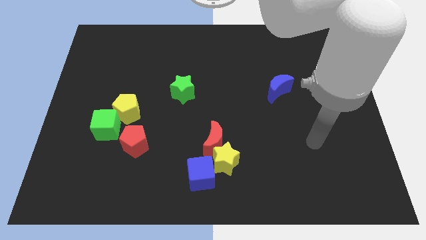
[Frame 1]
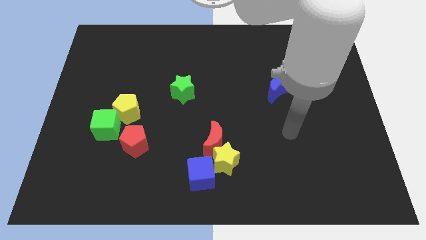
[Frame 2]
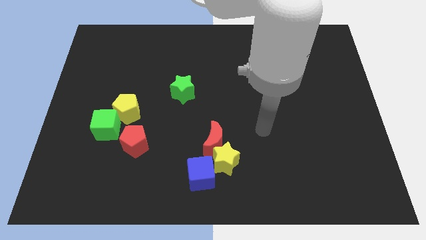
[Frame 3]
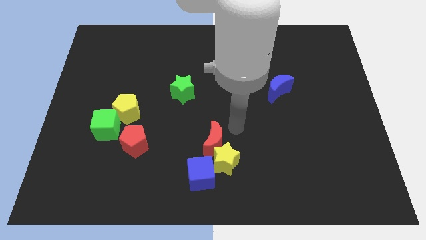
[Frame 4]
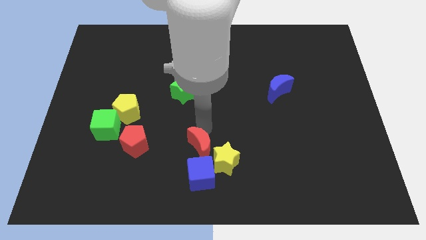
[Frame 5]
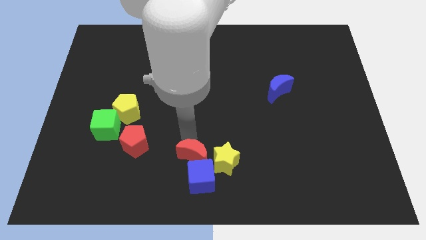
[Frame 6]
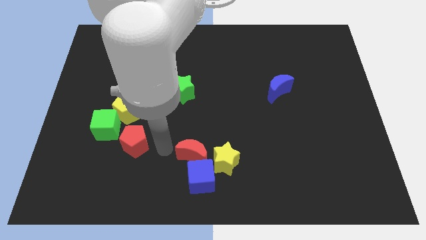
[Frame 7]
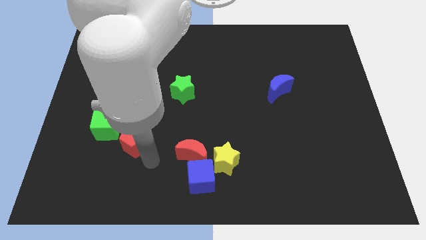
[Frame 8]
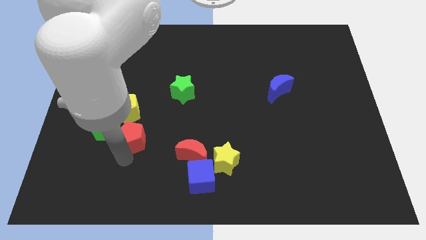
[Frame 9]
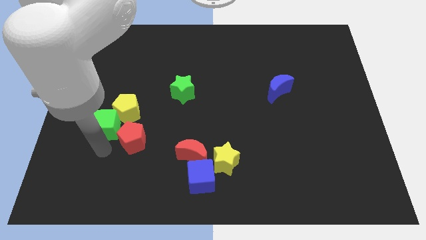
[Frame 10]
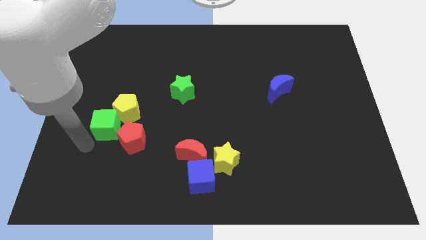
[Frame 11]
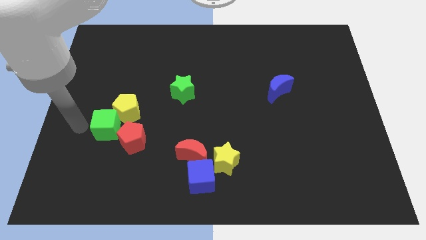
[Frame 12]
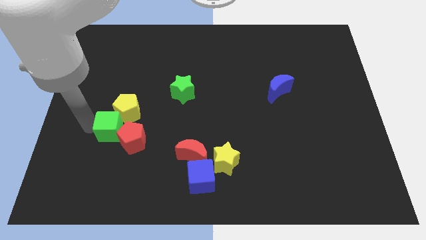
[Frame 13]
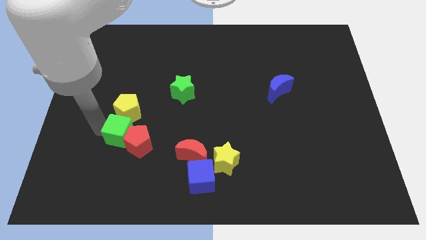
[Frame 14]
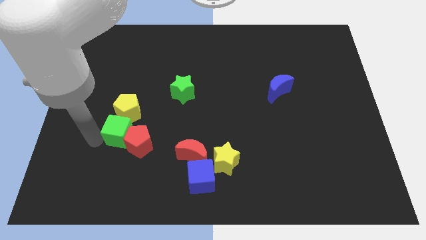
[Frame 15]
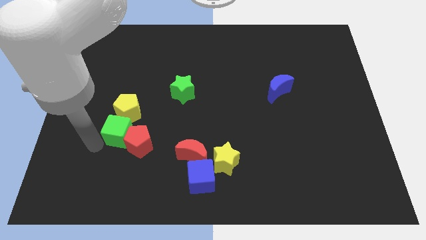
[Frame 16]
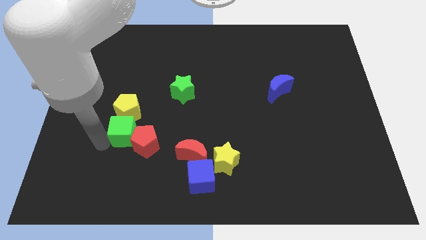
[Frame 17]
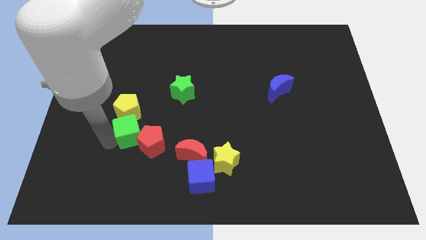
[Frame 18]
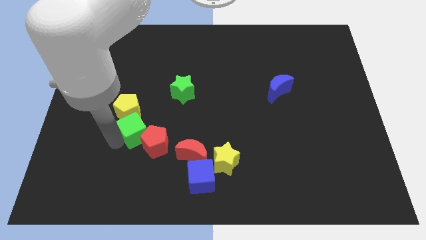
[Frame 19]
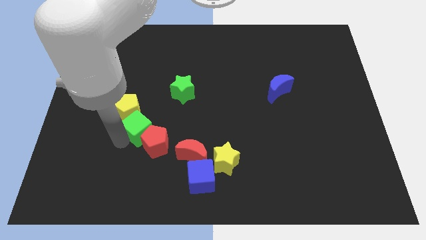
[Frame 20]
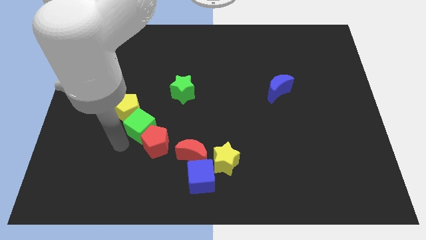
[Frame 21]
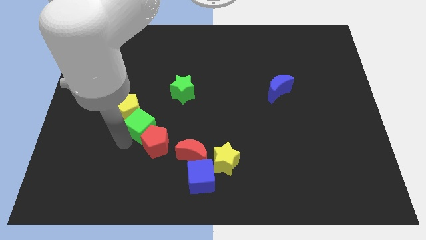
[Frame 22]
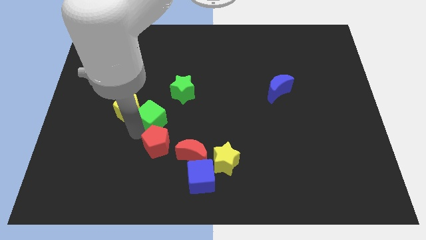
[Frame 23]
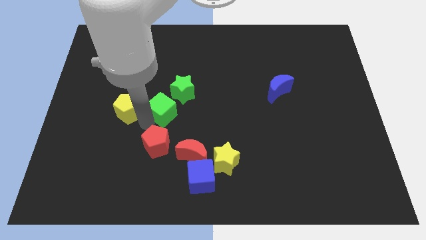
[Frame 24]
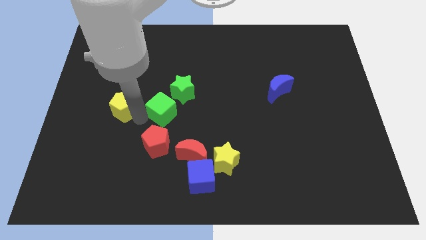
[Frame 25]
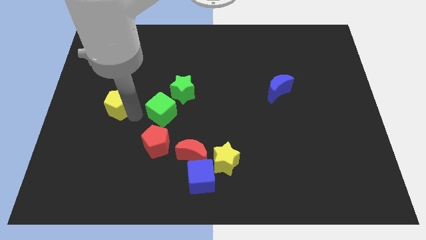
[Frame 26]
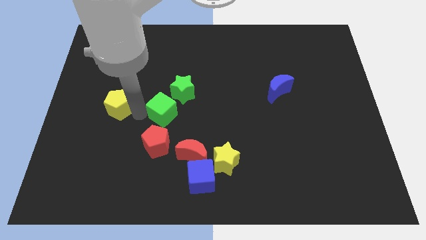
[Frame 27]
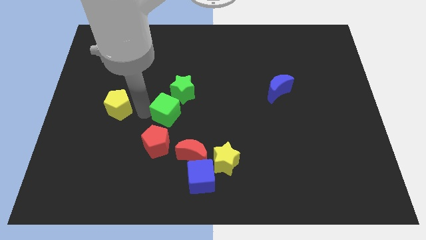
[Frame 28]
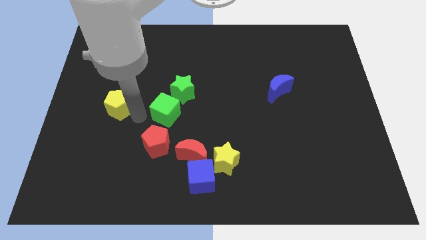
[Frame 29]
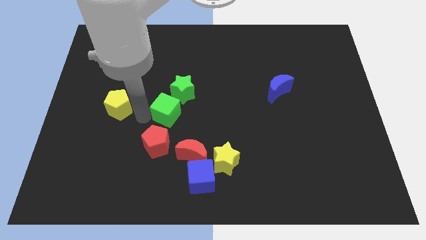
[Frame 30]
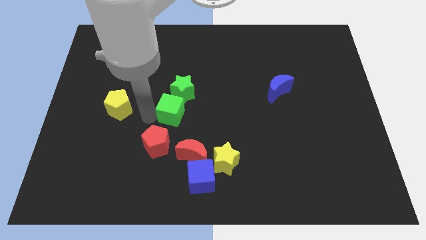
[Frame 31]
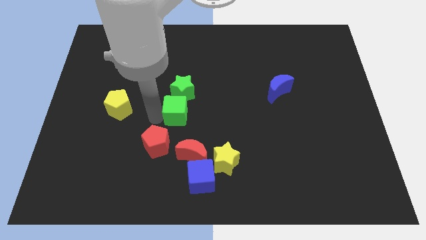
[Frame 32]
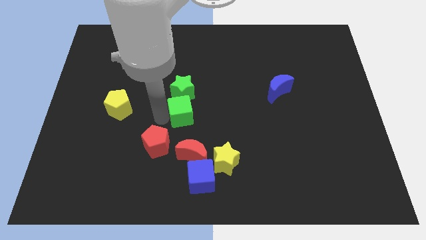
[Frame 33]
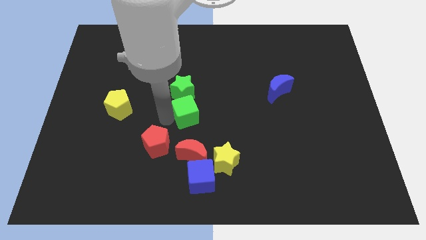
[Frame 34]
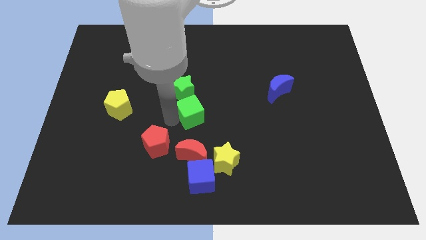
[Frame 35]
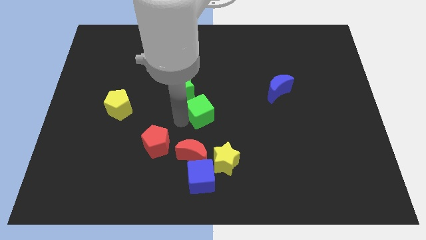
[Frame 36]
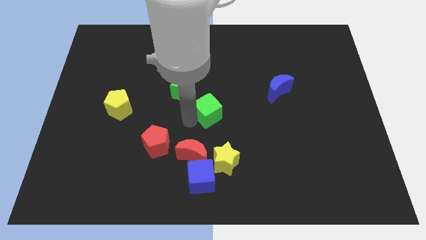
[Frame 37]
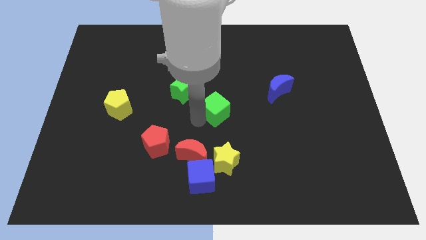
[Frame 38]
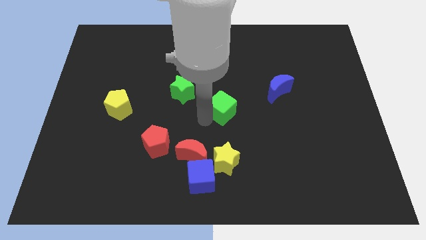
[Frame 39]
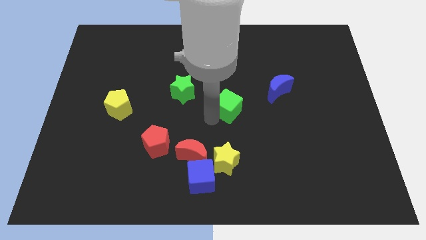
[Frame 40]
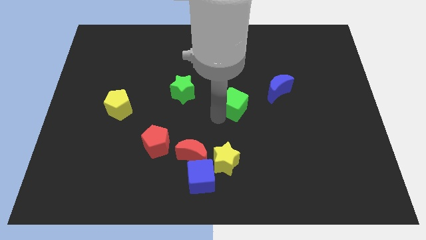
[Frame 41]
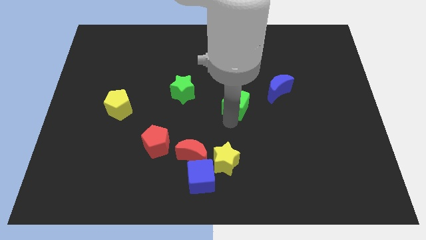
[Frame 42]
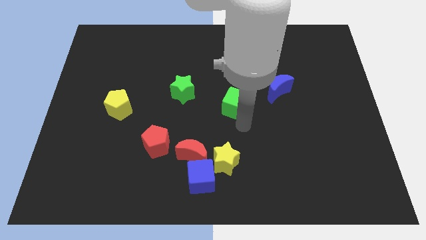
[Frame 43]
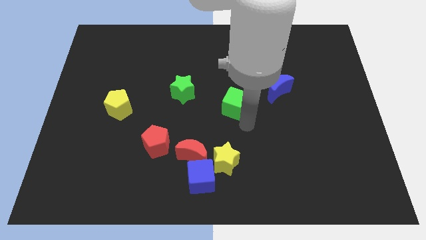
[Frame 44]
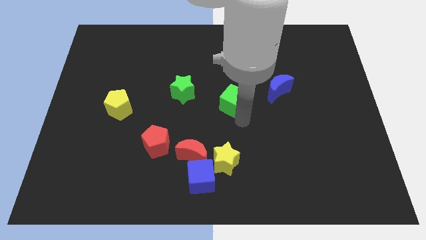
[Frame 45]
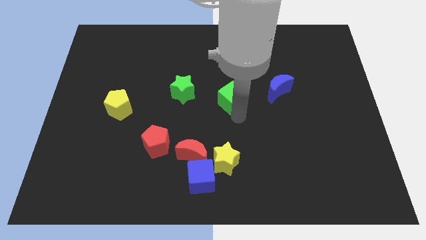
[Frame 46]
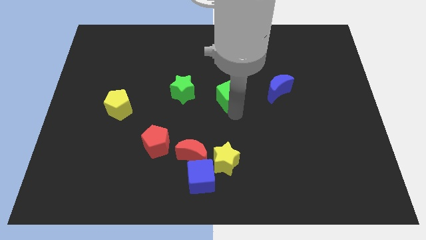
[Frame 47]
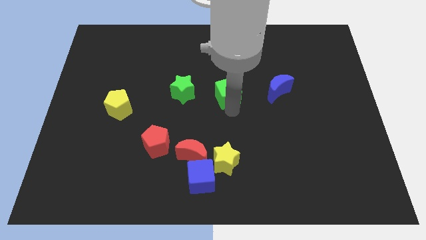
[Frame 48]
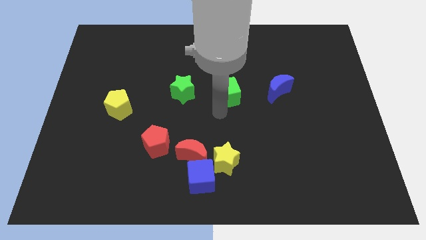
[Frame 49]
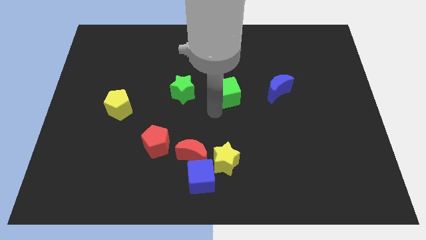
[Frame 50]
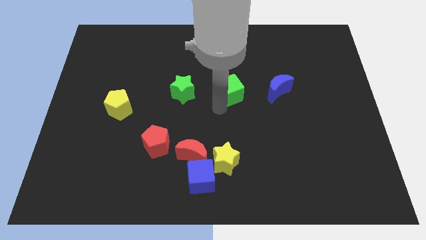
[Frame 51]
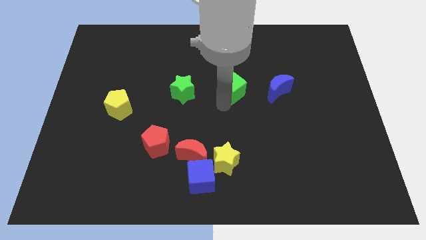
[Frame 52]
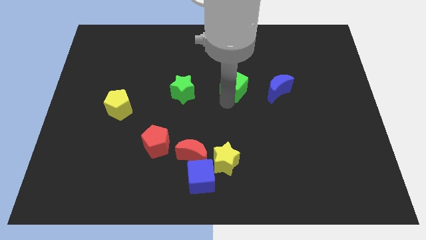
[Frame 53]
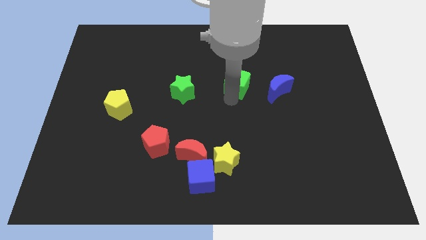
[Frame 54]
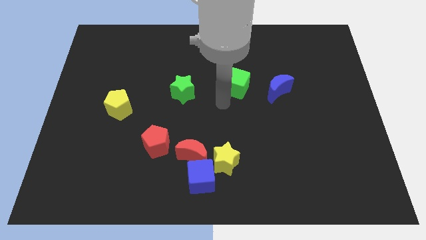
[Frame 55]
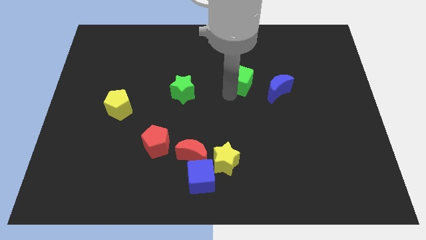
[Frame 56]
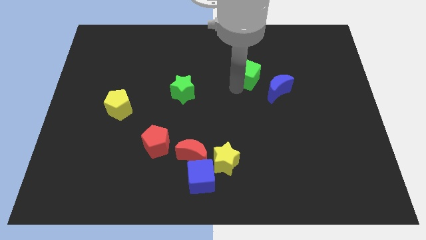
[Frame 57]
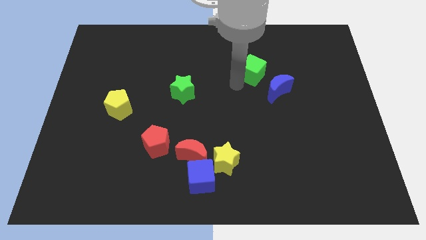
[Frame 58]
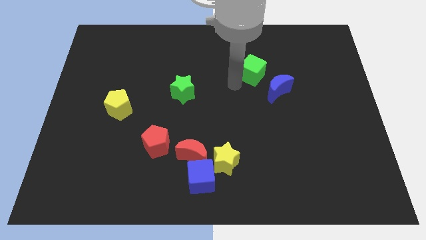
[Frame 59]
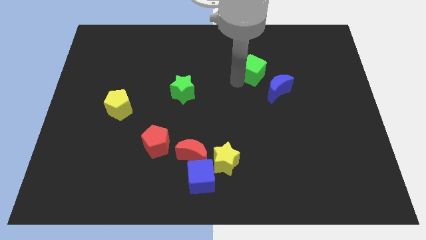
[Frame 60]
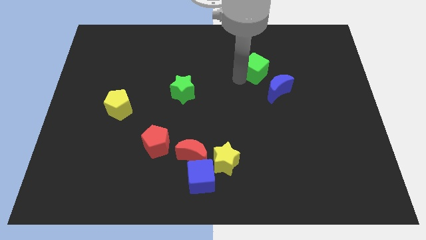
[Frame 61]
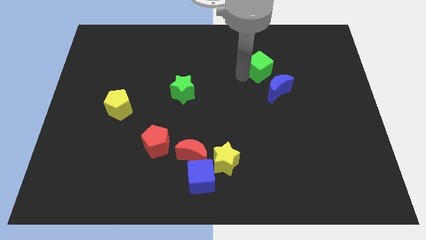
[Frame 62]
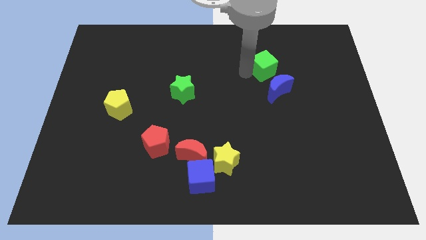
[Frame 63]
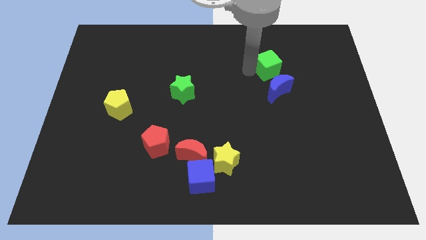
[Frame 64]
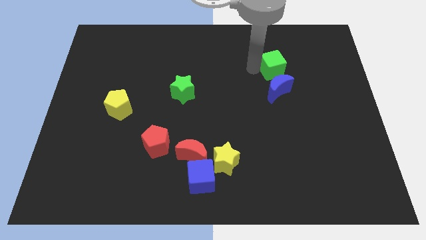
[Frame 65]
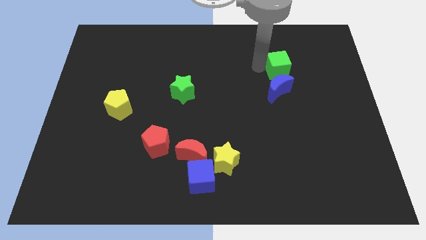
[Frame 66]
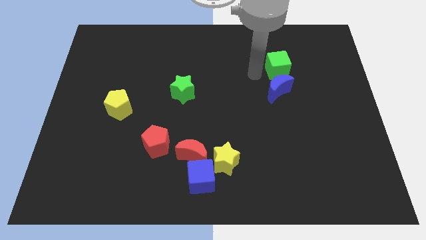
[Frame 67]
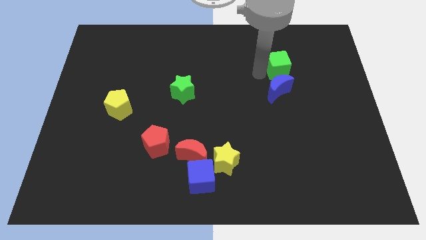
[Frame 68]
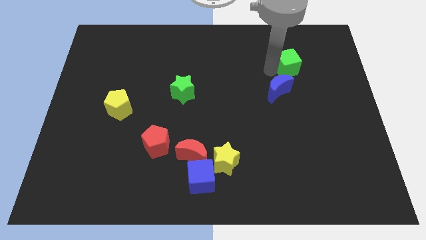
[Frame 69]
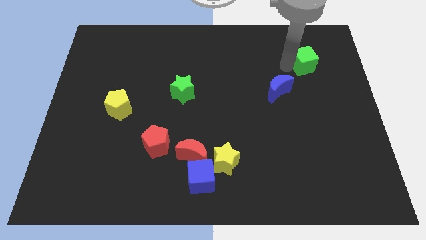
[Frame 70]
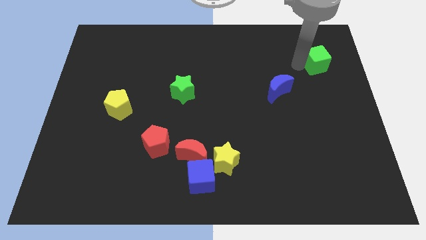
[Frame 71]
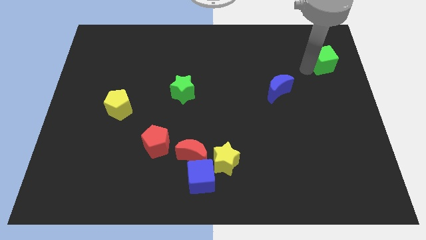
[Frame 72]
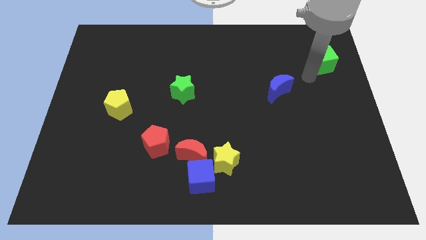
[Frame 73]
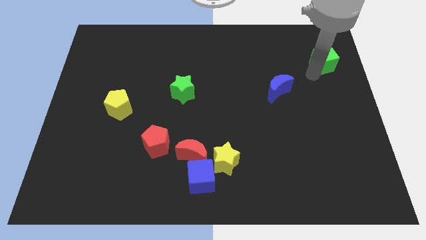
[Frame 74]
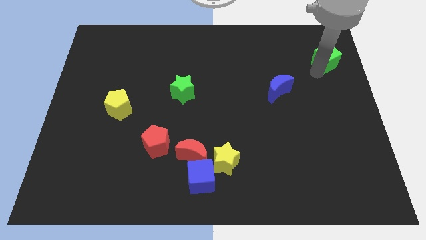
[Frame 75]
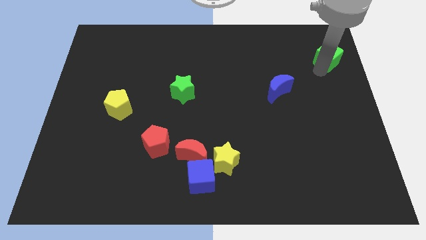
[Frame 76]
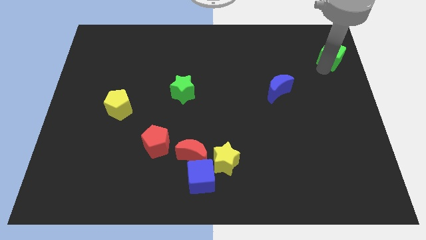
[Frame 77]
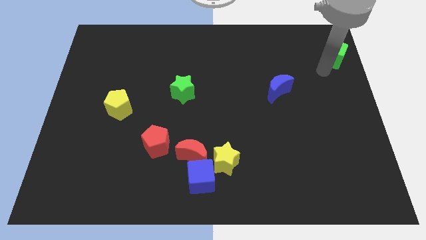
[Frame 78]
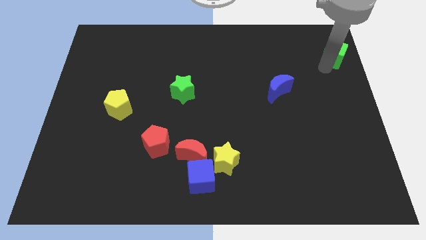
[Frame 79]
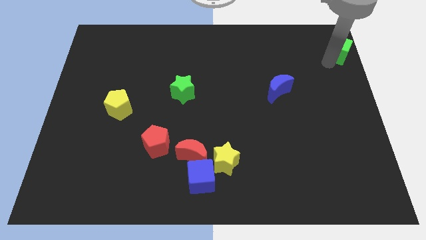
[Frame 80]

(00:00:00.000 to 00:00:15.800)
push the green cube to the upper right corner
